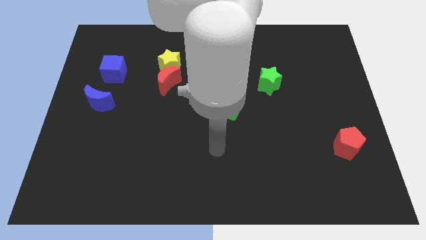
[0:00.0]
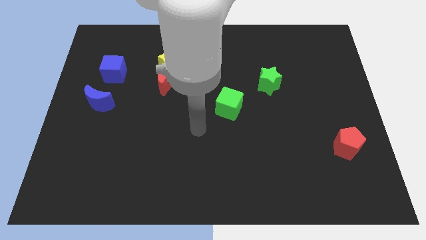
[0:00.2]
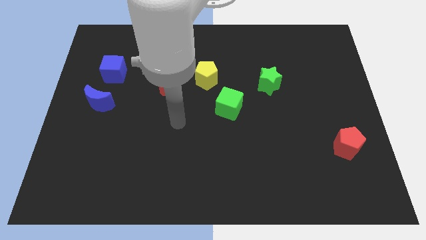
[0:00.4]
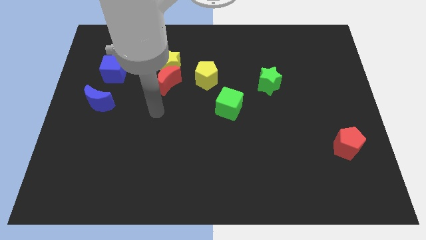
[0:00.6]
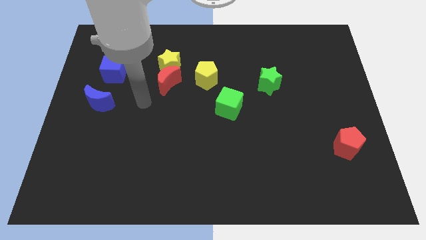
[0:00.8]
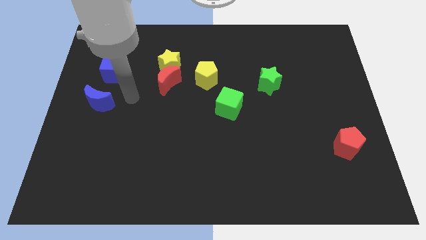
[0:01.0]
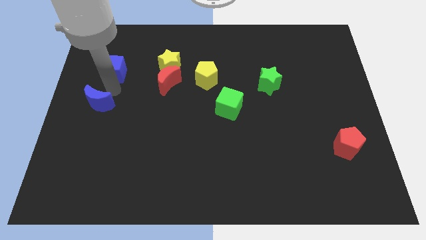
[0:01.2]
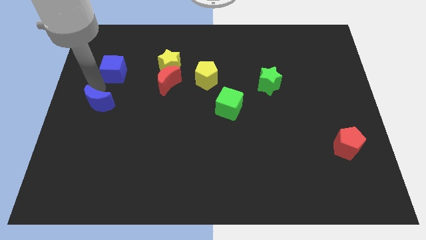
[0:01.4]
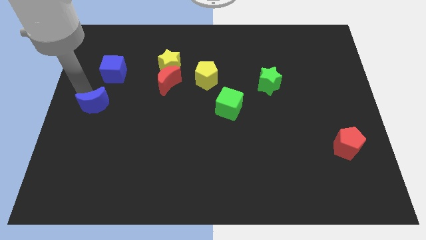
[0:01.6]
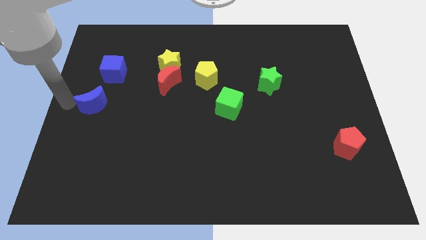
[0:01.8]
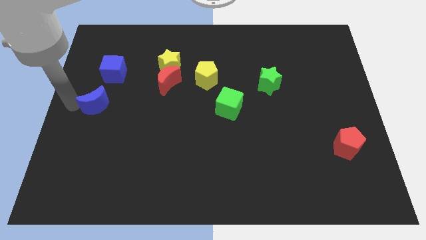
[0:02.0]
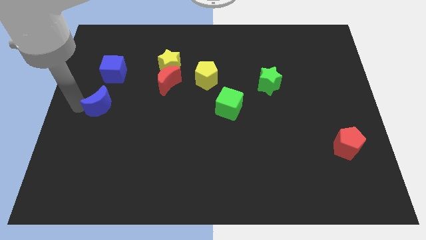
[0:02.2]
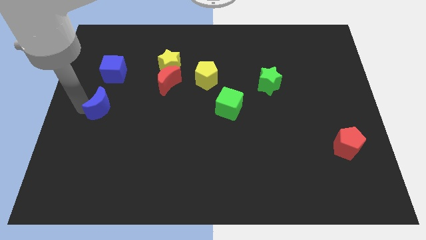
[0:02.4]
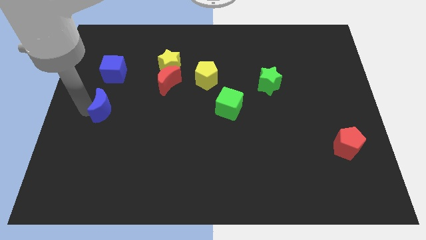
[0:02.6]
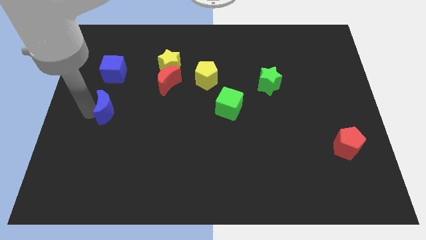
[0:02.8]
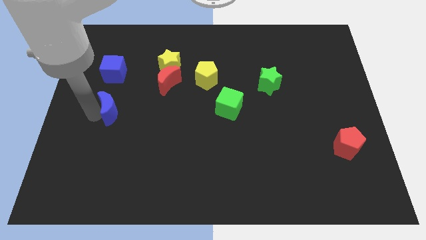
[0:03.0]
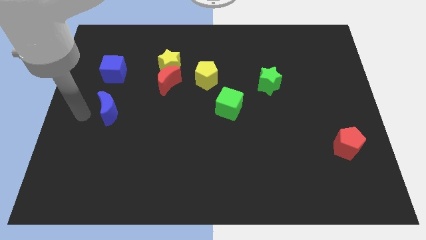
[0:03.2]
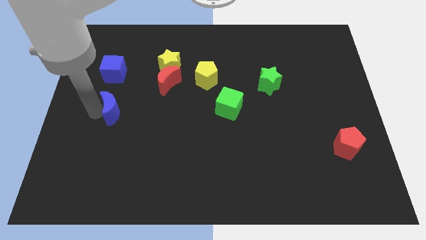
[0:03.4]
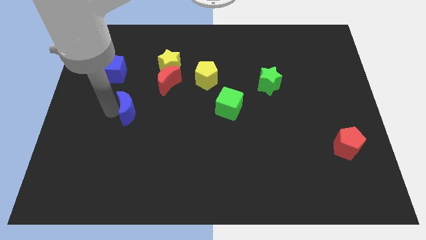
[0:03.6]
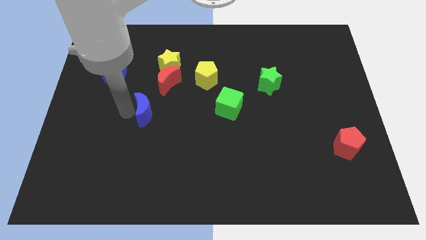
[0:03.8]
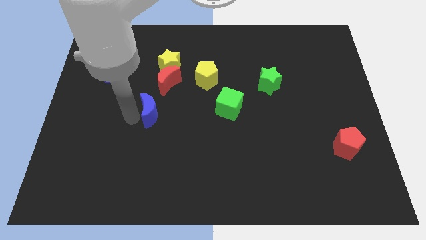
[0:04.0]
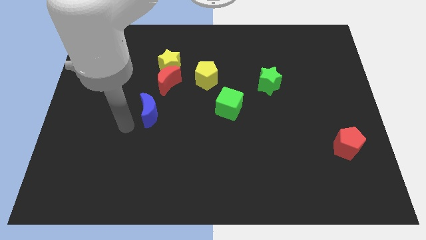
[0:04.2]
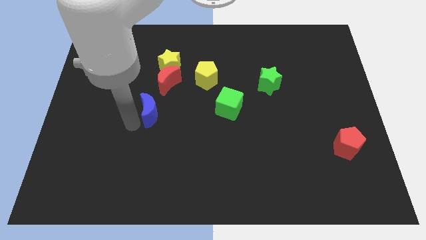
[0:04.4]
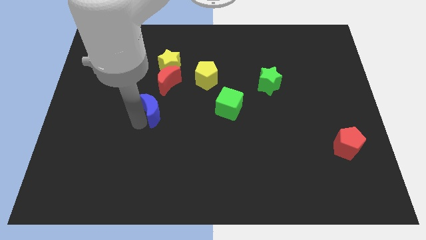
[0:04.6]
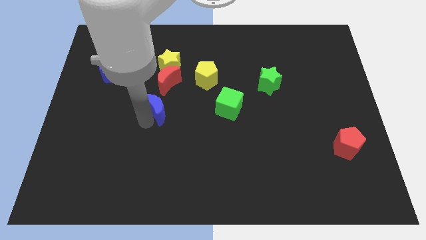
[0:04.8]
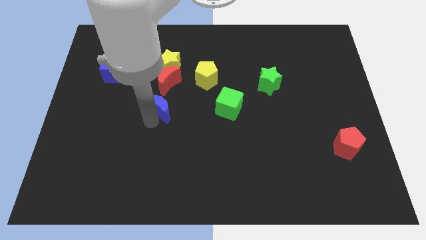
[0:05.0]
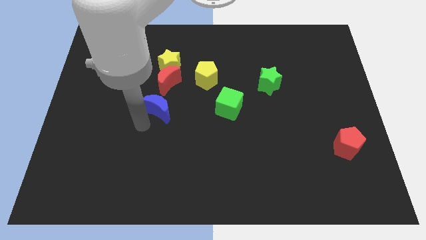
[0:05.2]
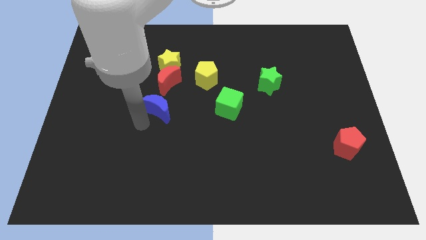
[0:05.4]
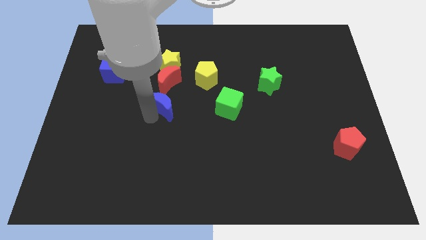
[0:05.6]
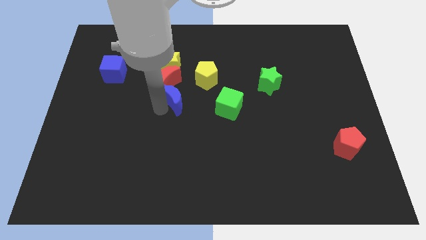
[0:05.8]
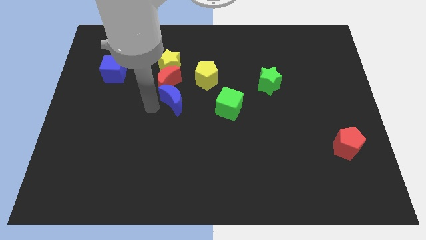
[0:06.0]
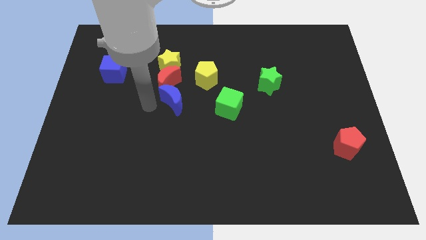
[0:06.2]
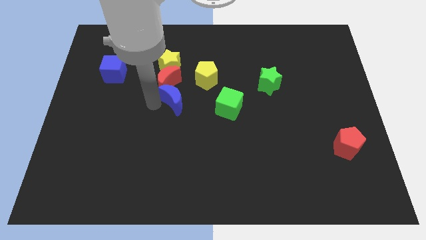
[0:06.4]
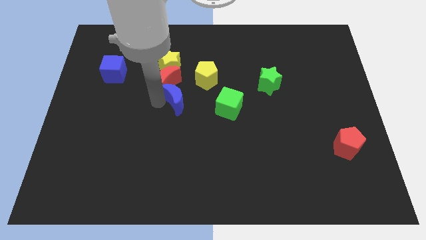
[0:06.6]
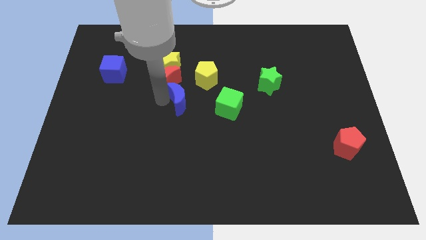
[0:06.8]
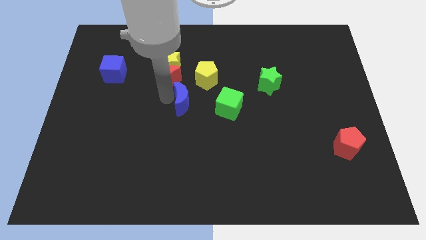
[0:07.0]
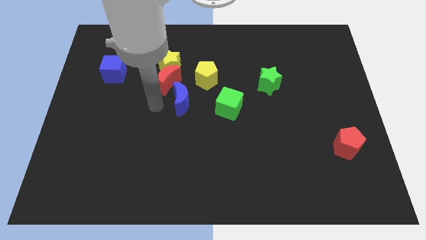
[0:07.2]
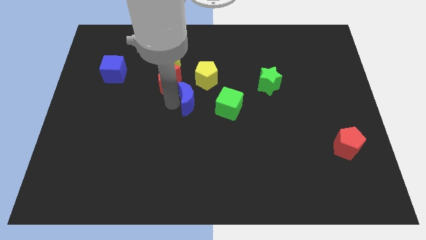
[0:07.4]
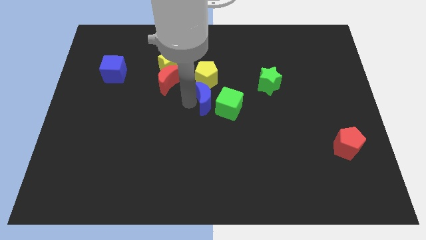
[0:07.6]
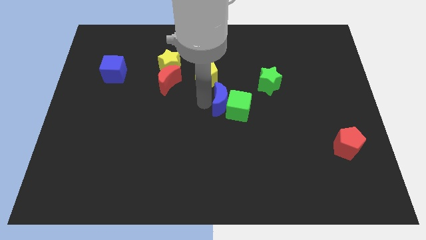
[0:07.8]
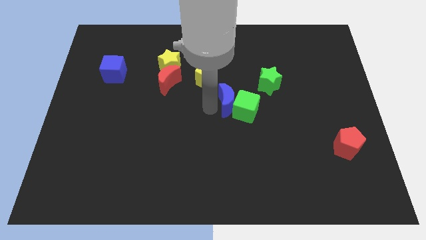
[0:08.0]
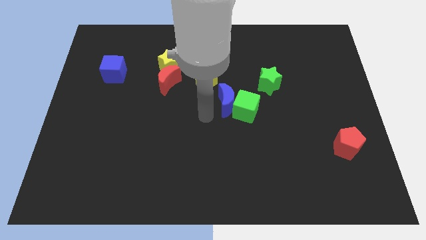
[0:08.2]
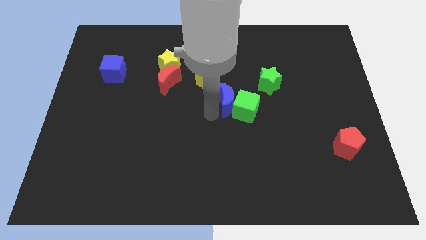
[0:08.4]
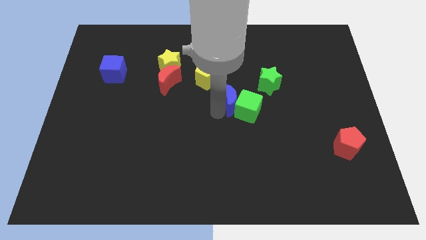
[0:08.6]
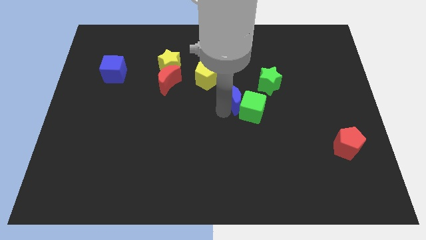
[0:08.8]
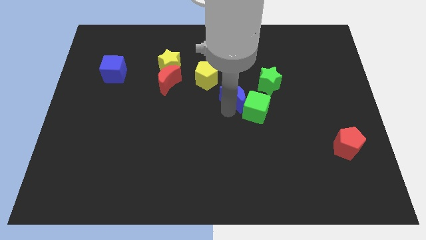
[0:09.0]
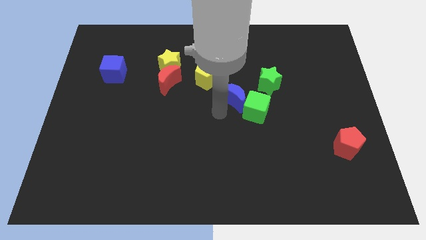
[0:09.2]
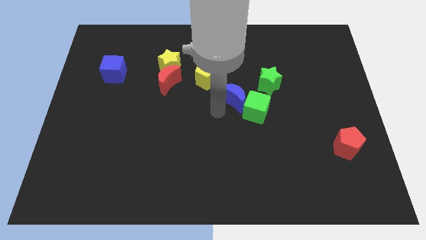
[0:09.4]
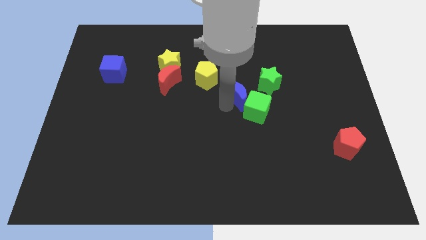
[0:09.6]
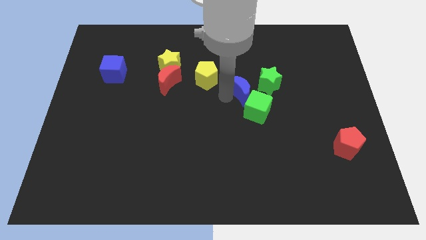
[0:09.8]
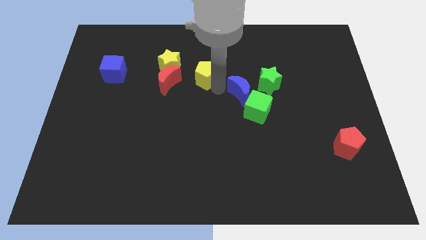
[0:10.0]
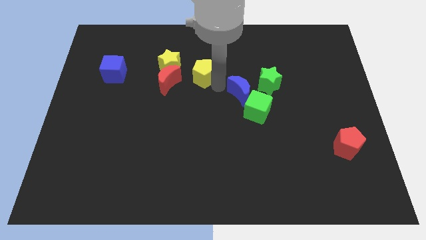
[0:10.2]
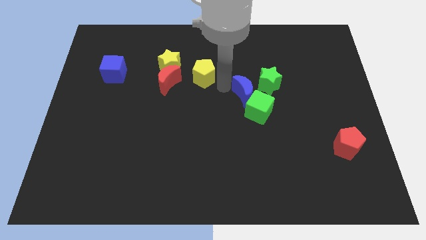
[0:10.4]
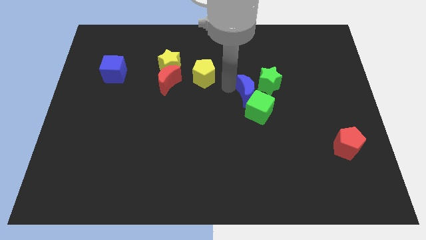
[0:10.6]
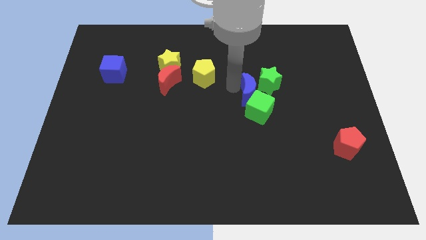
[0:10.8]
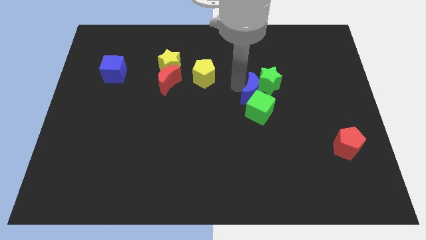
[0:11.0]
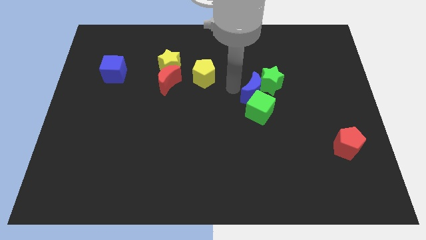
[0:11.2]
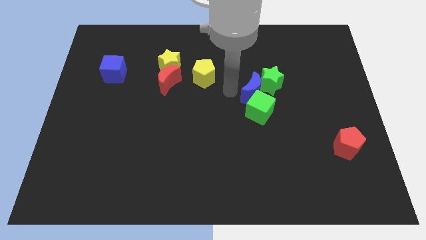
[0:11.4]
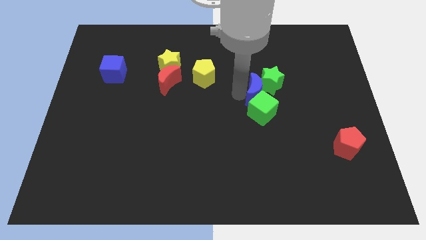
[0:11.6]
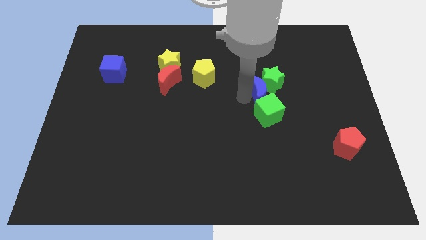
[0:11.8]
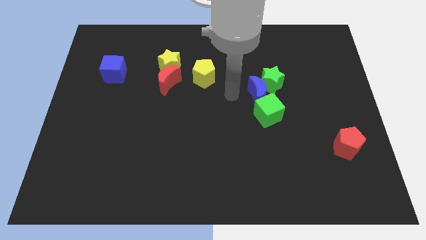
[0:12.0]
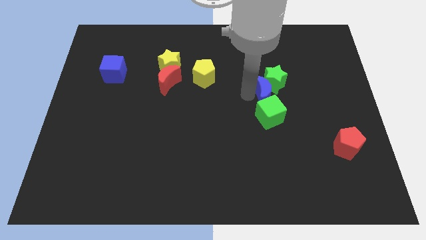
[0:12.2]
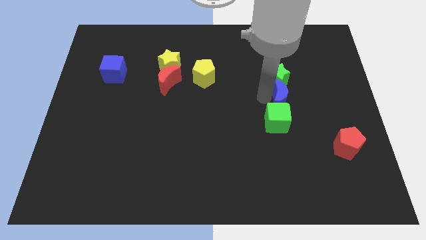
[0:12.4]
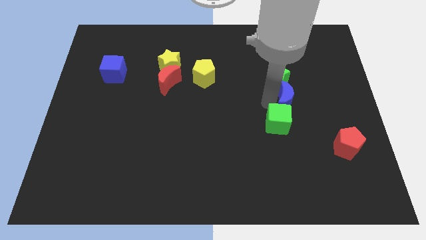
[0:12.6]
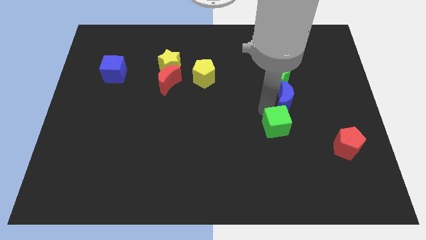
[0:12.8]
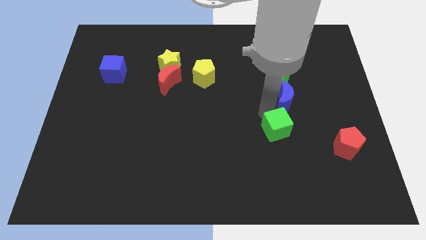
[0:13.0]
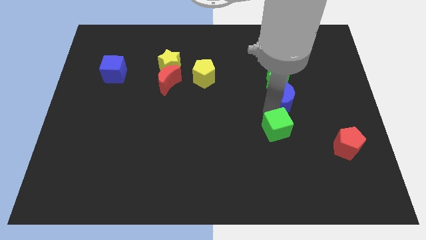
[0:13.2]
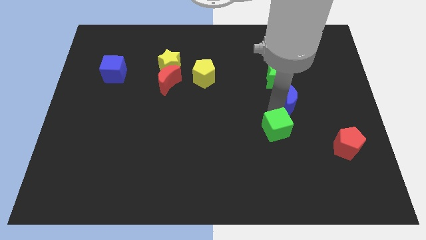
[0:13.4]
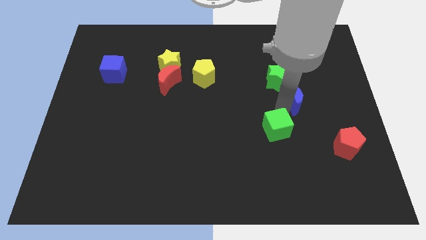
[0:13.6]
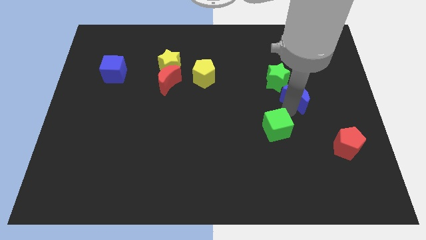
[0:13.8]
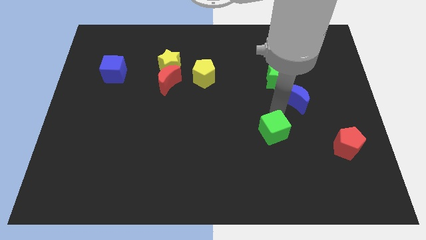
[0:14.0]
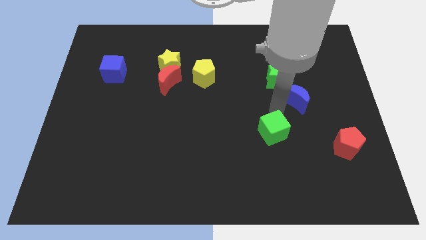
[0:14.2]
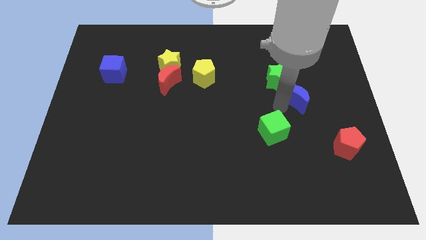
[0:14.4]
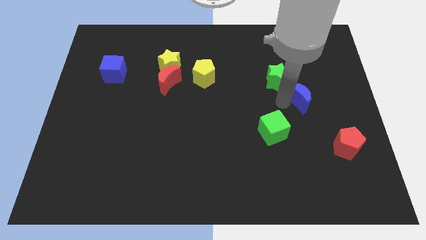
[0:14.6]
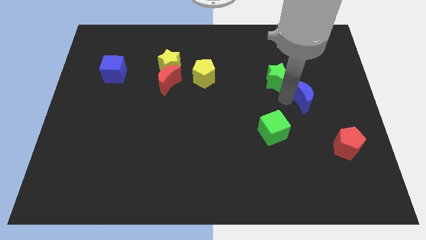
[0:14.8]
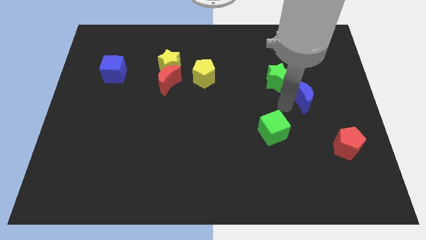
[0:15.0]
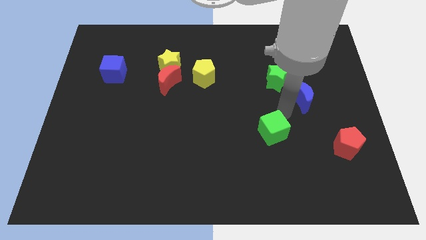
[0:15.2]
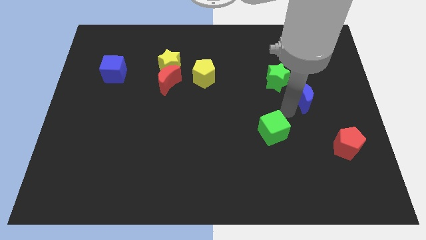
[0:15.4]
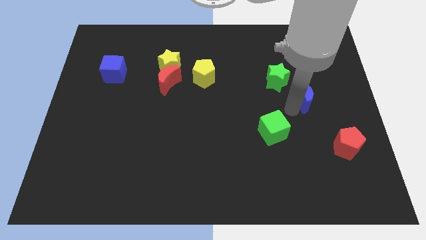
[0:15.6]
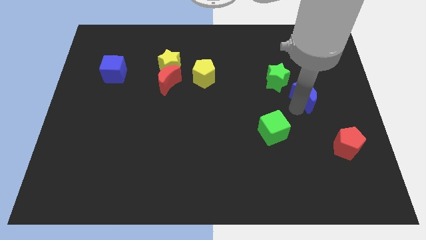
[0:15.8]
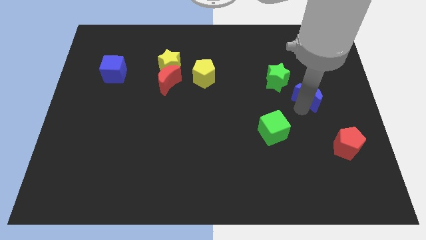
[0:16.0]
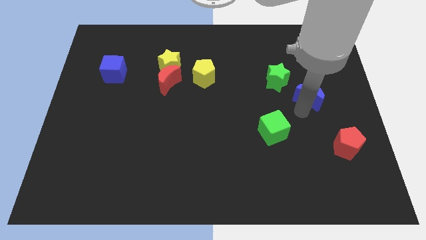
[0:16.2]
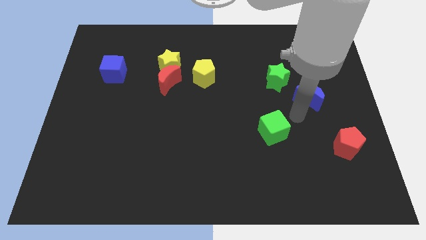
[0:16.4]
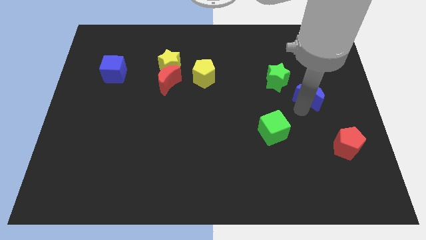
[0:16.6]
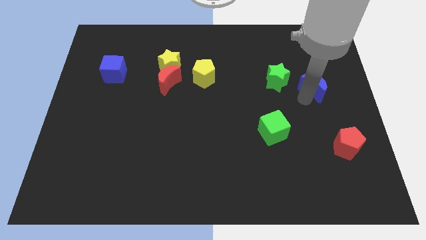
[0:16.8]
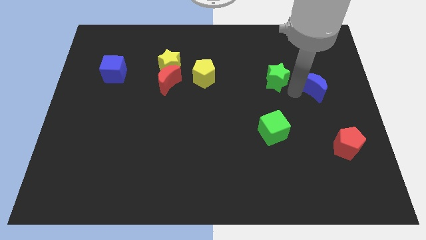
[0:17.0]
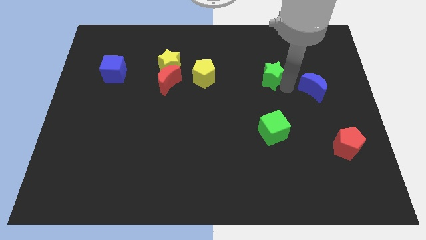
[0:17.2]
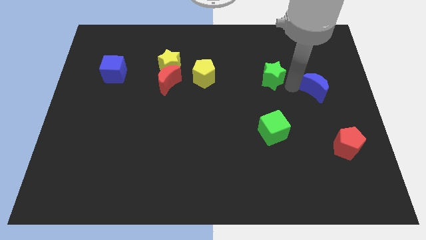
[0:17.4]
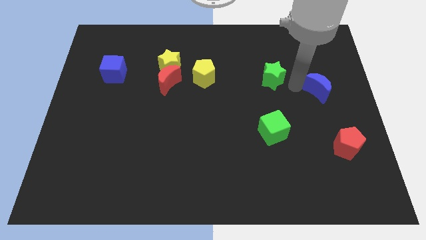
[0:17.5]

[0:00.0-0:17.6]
slide the blue moon to the right side
